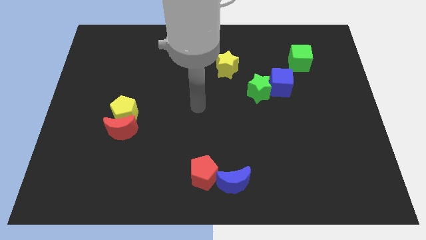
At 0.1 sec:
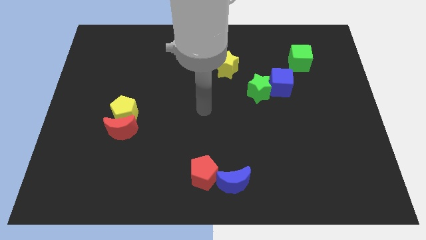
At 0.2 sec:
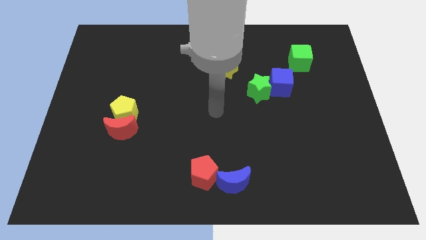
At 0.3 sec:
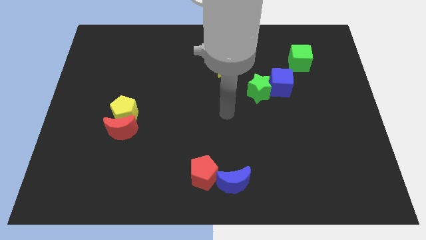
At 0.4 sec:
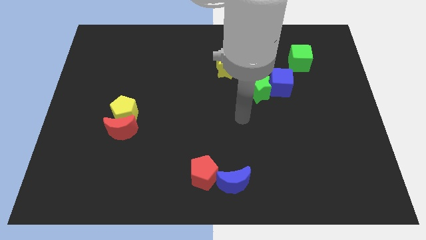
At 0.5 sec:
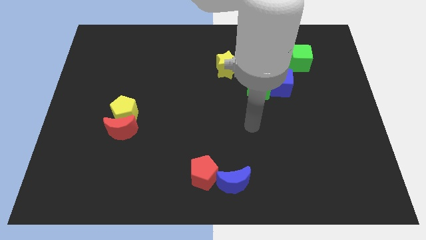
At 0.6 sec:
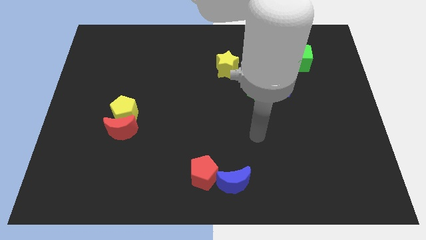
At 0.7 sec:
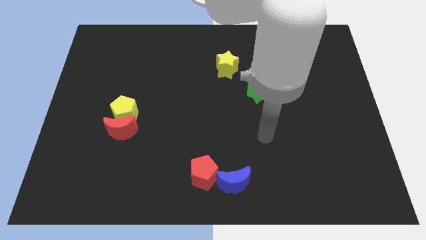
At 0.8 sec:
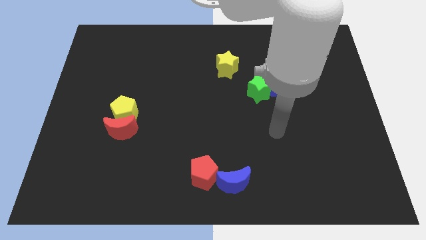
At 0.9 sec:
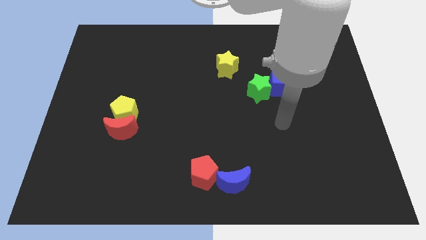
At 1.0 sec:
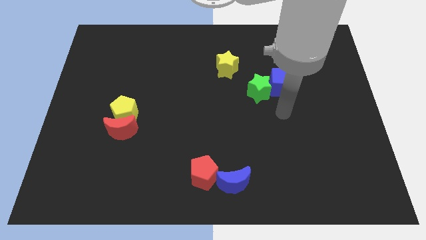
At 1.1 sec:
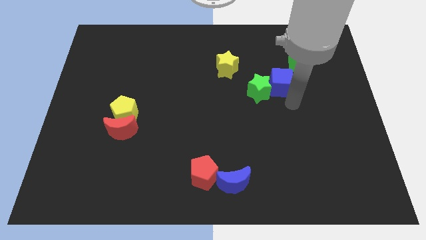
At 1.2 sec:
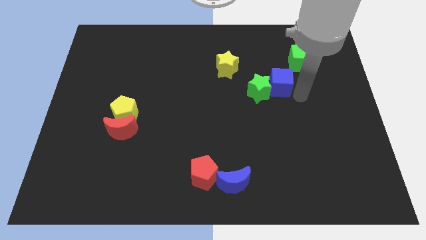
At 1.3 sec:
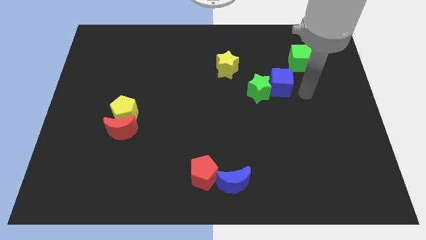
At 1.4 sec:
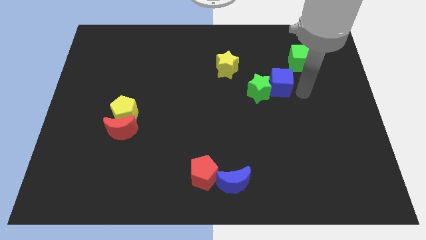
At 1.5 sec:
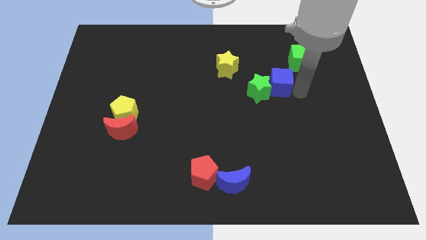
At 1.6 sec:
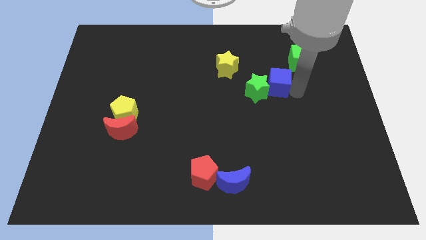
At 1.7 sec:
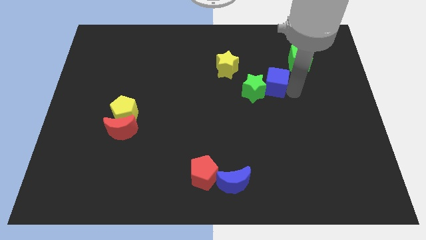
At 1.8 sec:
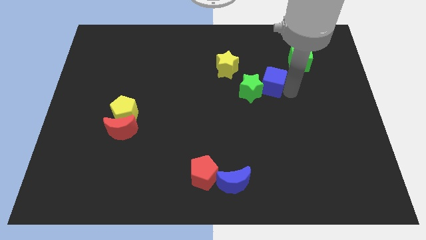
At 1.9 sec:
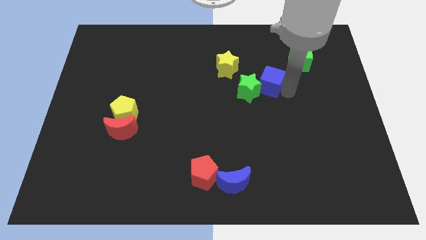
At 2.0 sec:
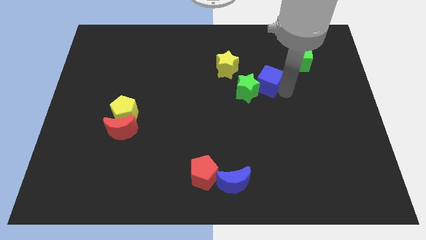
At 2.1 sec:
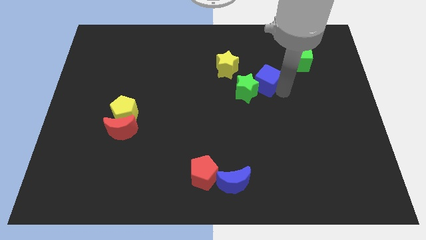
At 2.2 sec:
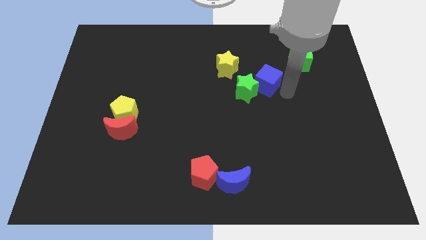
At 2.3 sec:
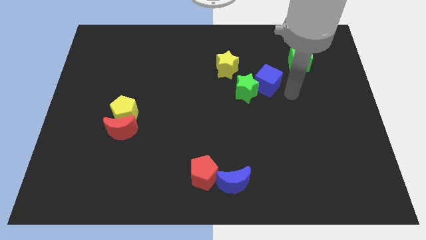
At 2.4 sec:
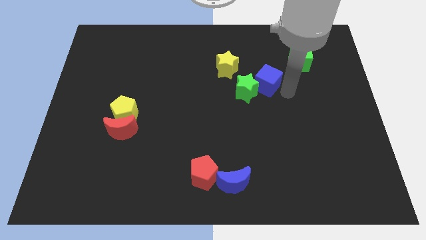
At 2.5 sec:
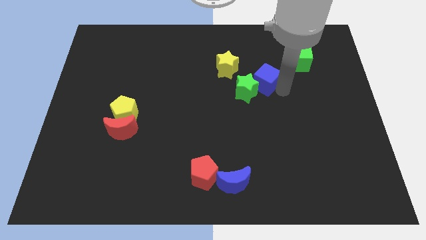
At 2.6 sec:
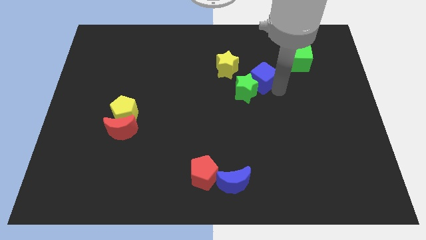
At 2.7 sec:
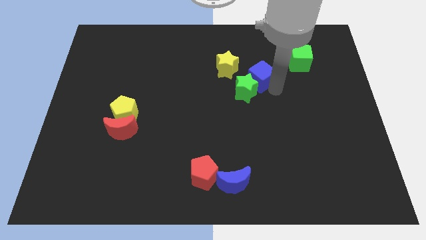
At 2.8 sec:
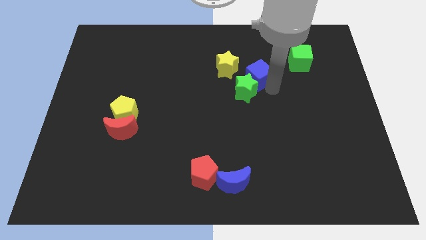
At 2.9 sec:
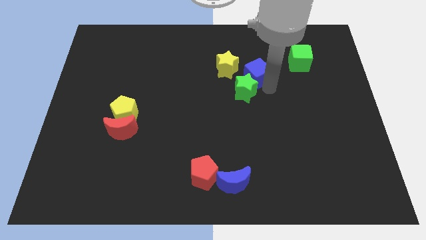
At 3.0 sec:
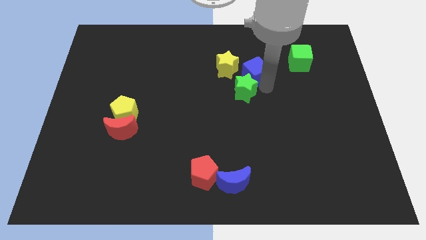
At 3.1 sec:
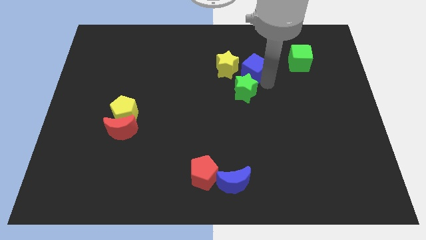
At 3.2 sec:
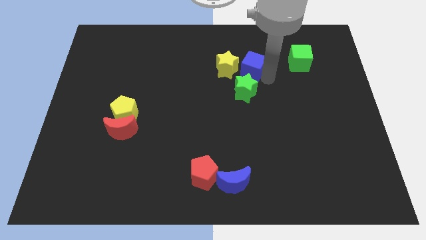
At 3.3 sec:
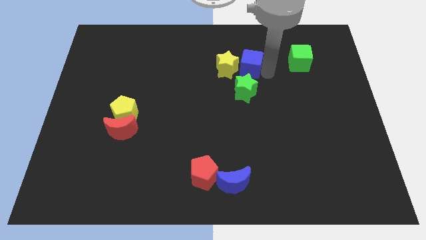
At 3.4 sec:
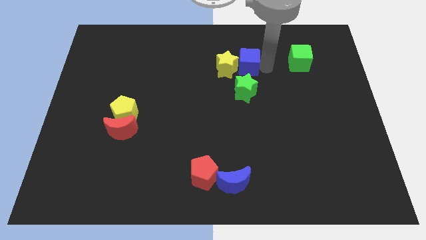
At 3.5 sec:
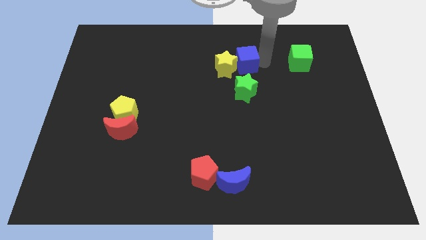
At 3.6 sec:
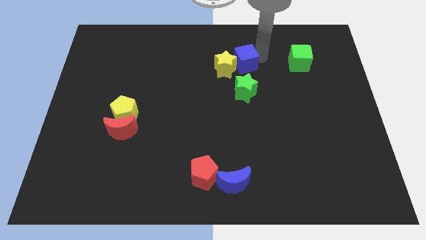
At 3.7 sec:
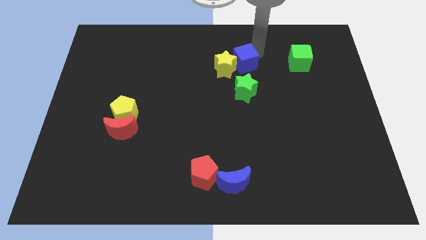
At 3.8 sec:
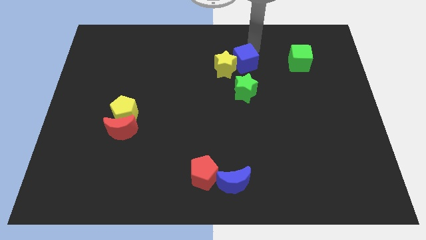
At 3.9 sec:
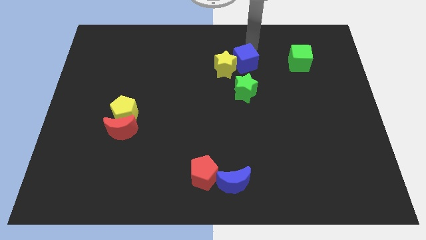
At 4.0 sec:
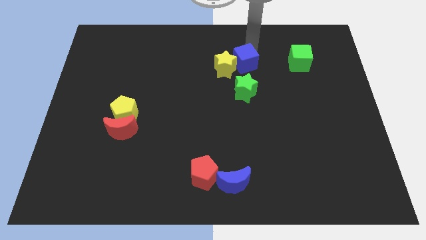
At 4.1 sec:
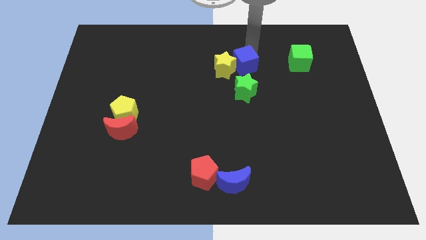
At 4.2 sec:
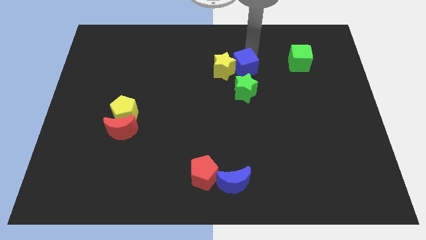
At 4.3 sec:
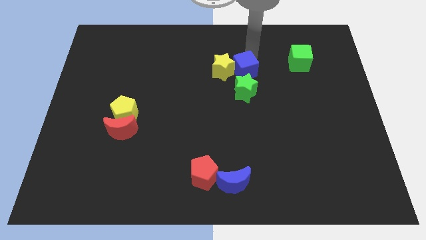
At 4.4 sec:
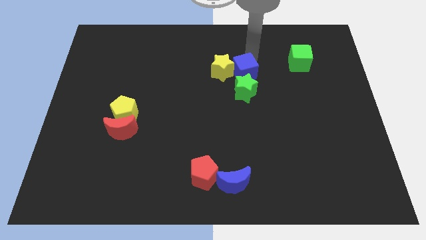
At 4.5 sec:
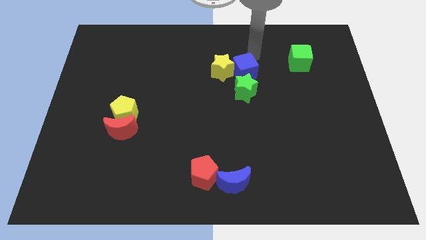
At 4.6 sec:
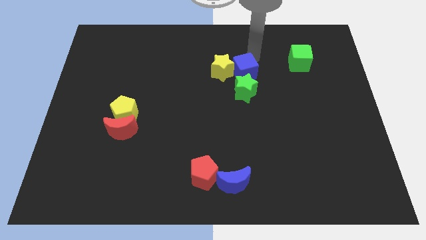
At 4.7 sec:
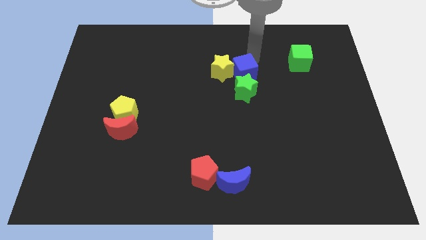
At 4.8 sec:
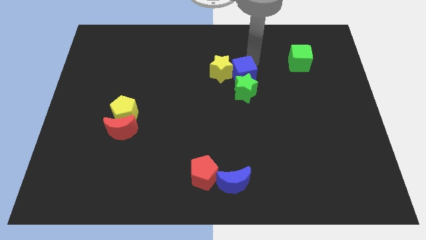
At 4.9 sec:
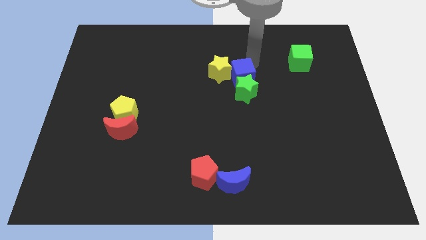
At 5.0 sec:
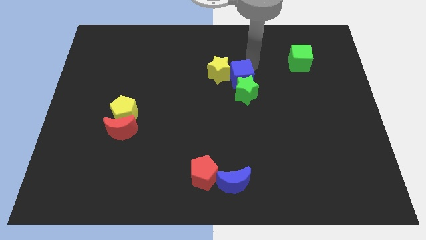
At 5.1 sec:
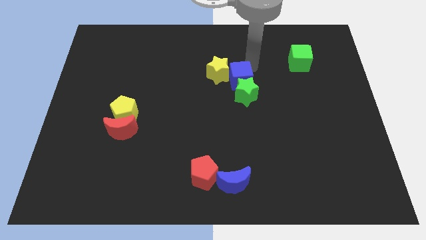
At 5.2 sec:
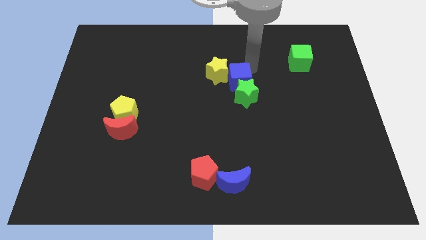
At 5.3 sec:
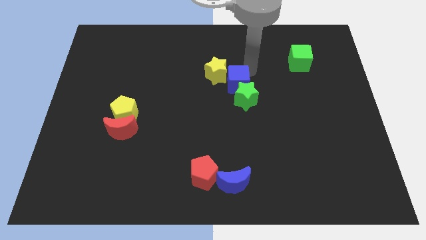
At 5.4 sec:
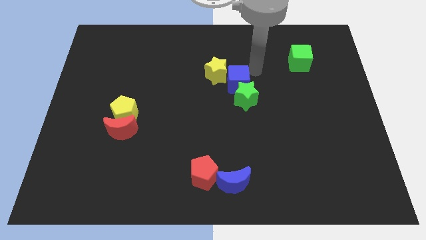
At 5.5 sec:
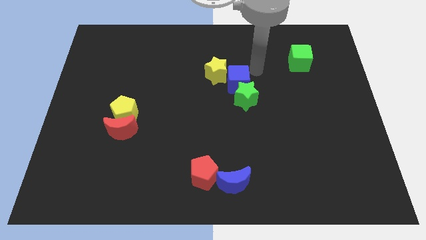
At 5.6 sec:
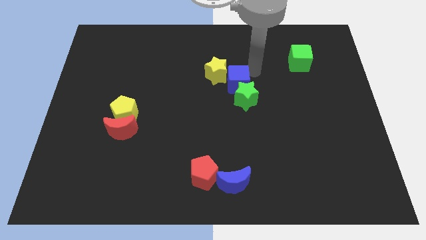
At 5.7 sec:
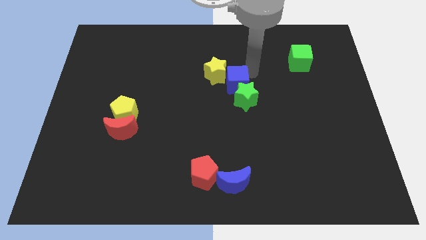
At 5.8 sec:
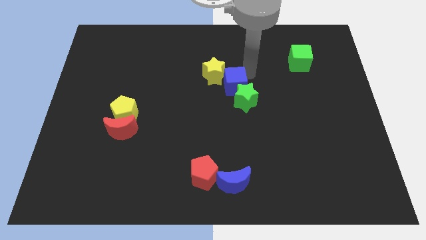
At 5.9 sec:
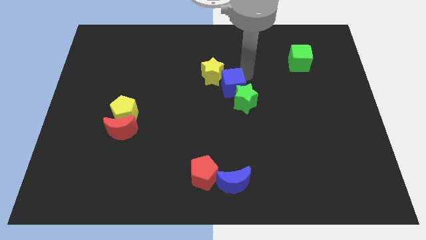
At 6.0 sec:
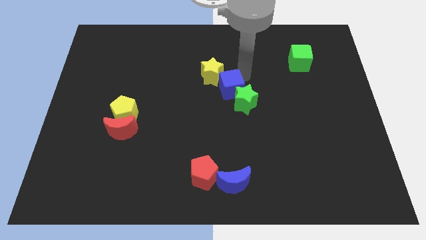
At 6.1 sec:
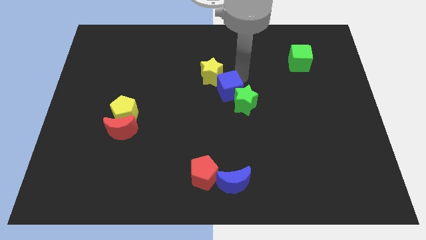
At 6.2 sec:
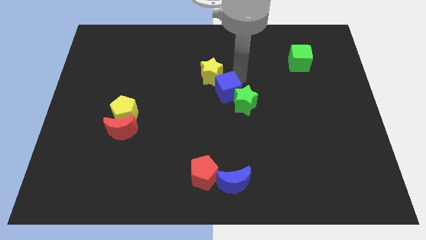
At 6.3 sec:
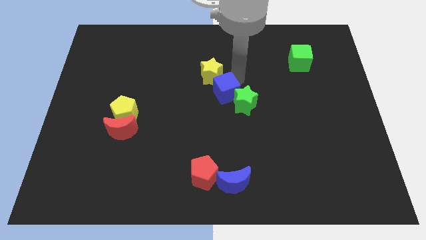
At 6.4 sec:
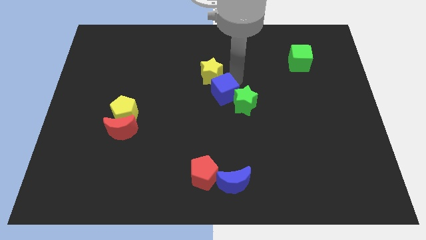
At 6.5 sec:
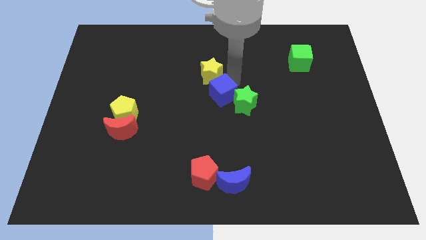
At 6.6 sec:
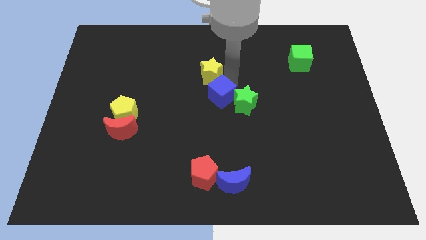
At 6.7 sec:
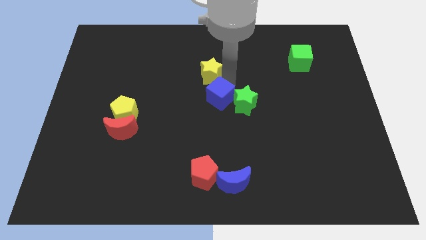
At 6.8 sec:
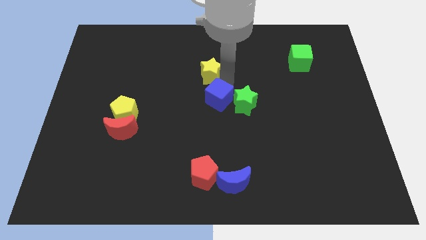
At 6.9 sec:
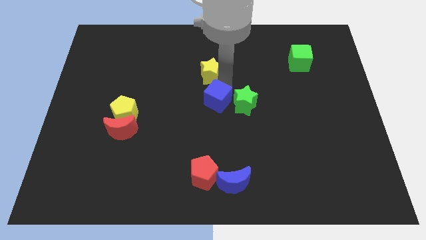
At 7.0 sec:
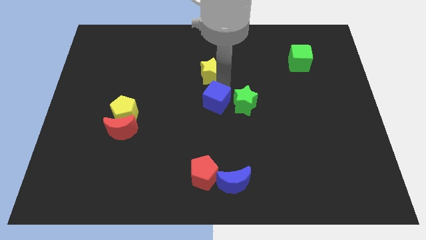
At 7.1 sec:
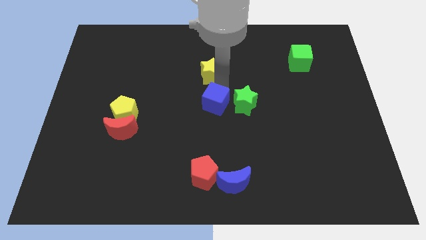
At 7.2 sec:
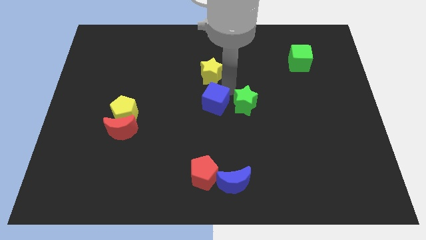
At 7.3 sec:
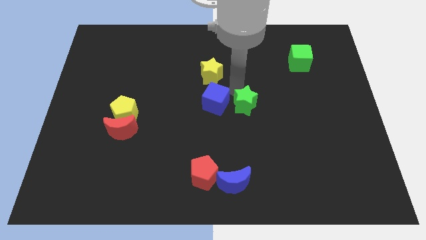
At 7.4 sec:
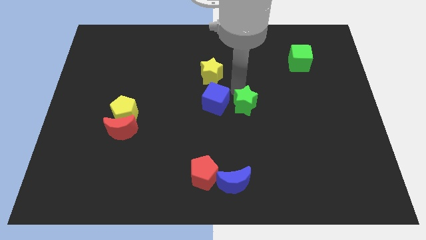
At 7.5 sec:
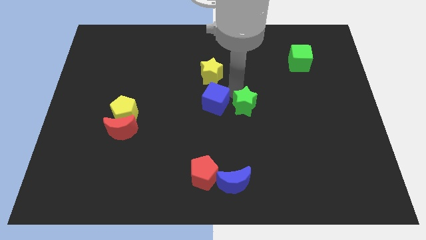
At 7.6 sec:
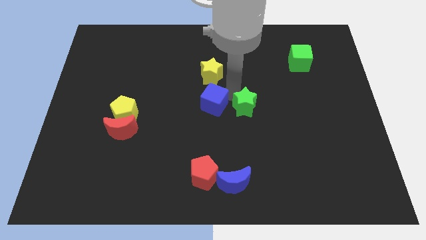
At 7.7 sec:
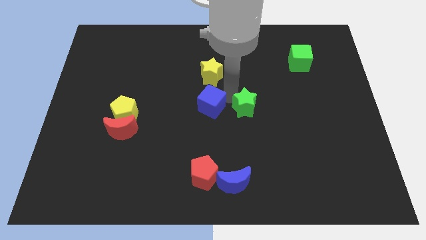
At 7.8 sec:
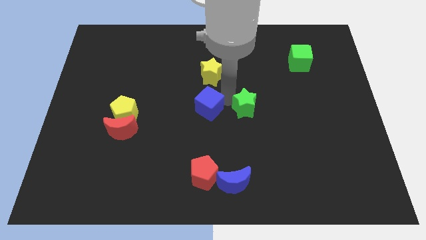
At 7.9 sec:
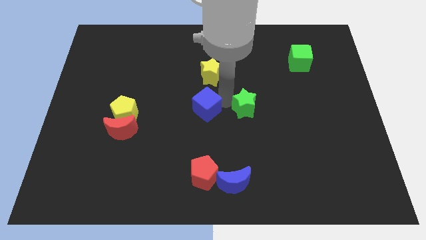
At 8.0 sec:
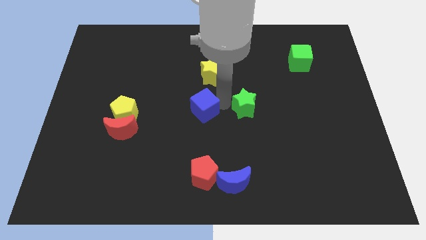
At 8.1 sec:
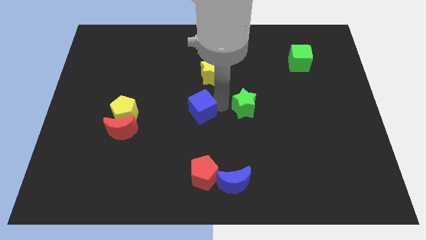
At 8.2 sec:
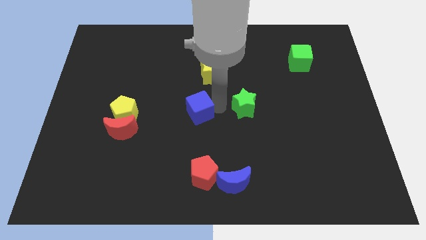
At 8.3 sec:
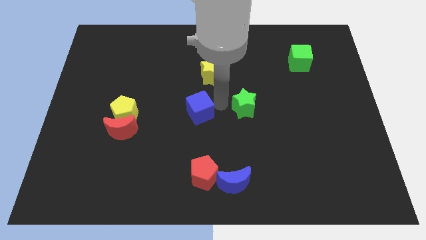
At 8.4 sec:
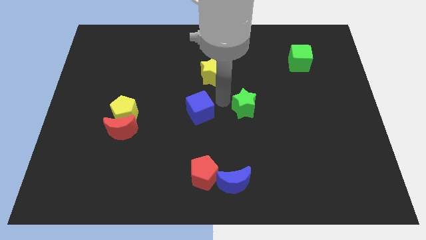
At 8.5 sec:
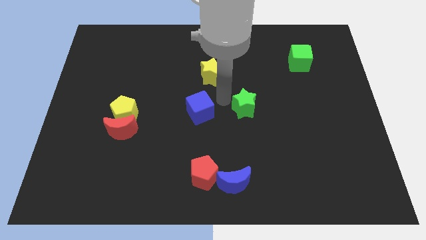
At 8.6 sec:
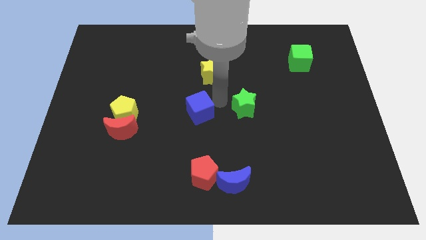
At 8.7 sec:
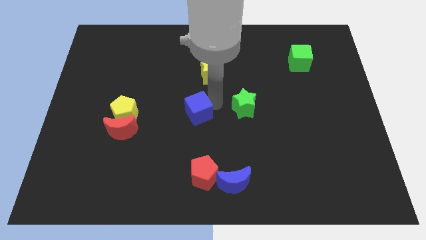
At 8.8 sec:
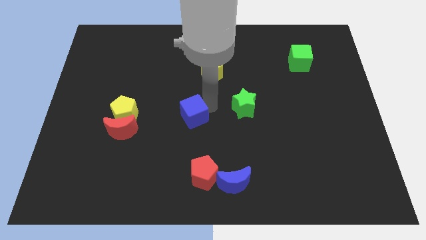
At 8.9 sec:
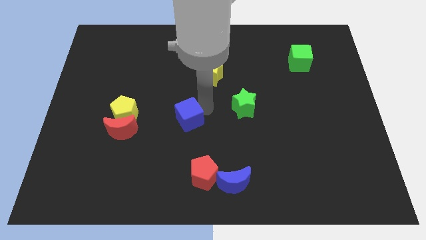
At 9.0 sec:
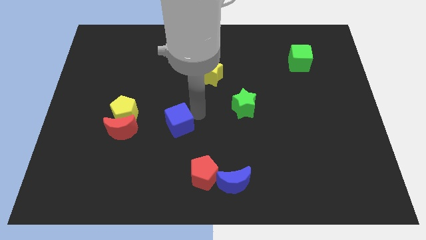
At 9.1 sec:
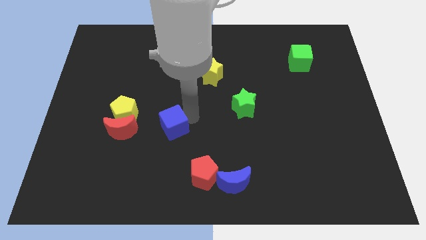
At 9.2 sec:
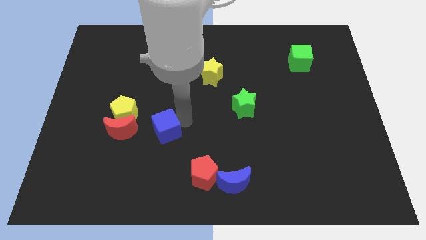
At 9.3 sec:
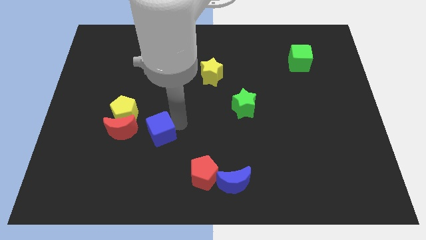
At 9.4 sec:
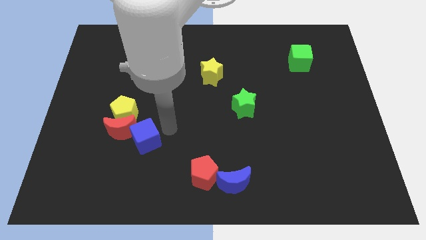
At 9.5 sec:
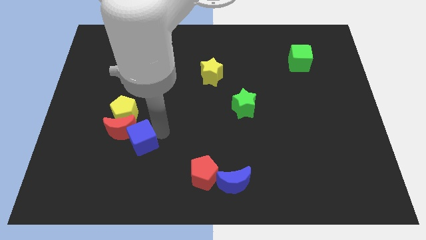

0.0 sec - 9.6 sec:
push the blue cube to the bottom side of the yellow pentagon
